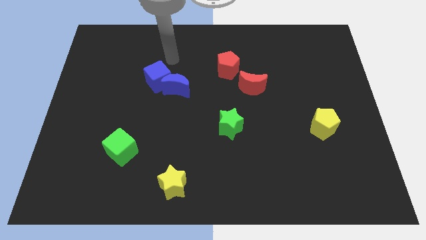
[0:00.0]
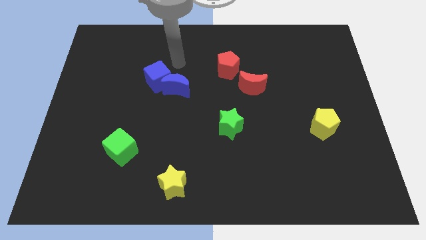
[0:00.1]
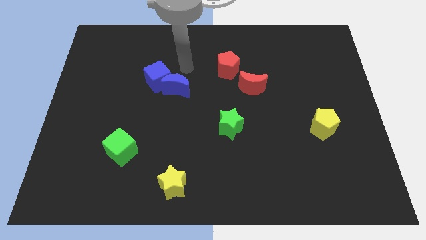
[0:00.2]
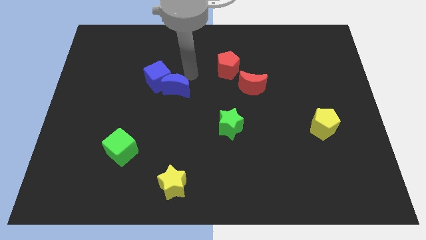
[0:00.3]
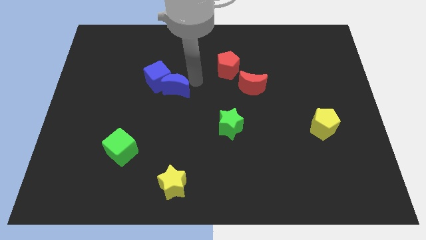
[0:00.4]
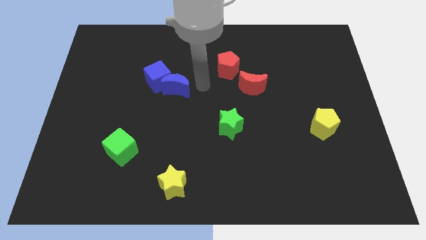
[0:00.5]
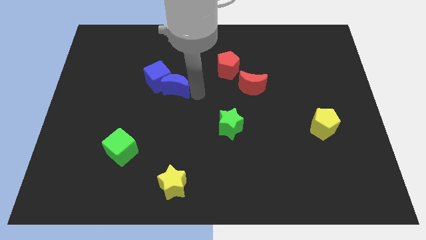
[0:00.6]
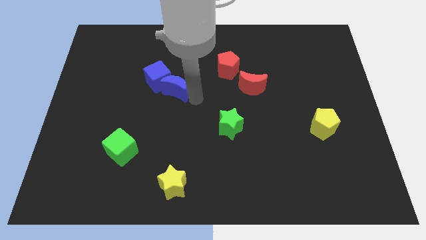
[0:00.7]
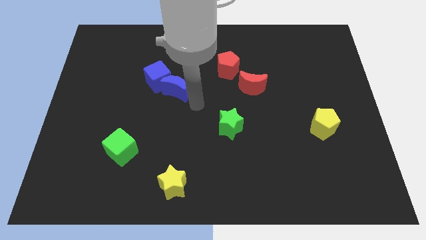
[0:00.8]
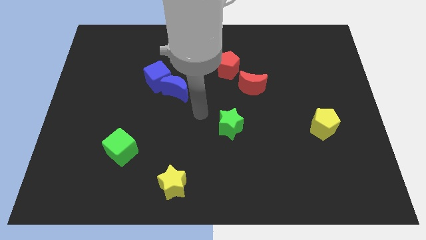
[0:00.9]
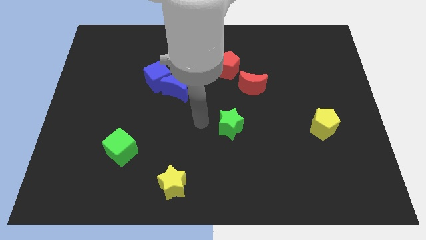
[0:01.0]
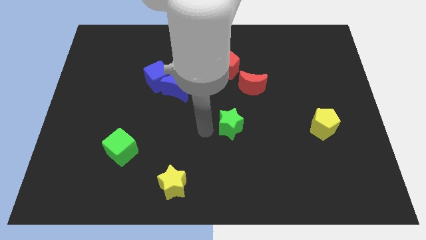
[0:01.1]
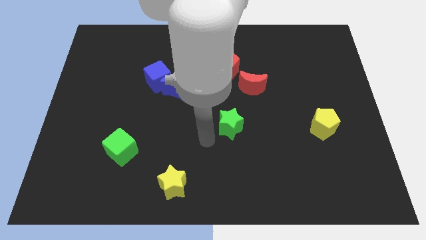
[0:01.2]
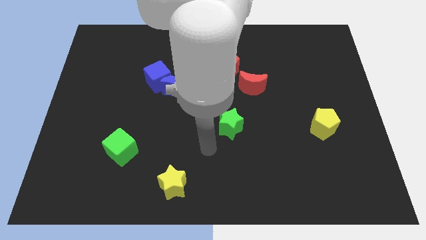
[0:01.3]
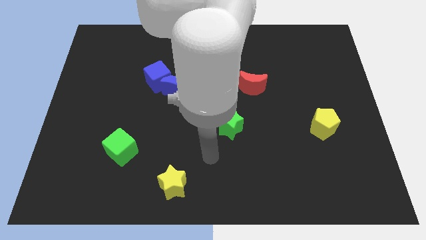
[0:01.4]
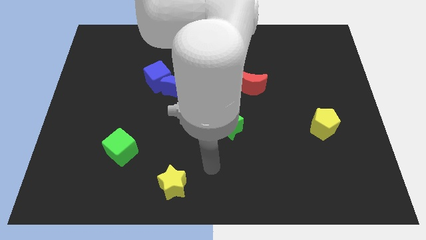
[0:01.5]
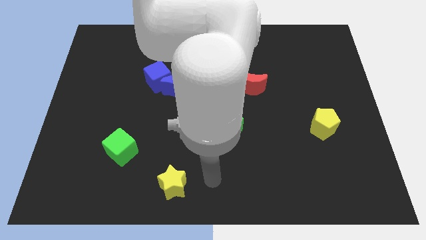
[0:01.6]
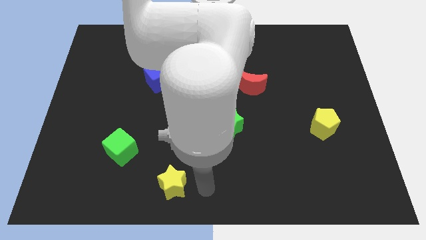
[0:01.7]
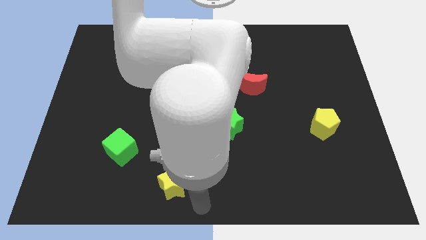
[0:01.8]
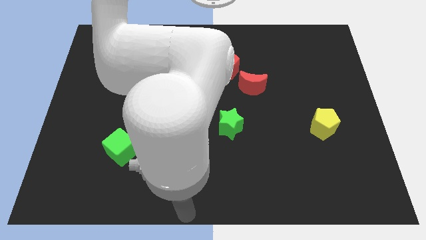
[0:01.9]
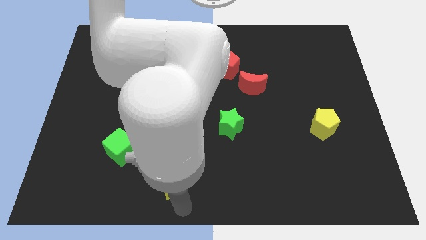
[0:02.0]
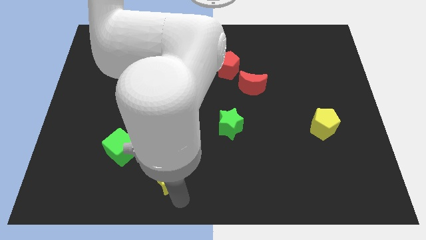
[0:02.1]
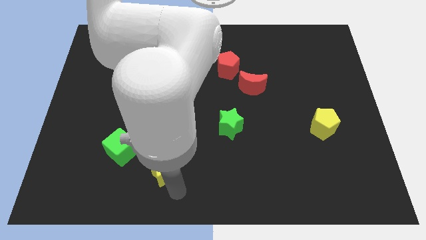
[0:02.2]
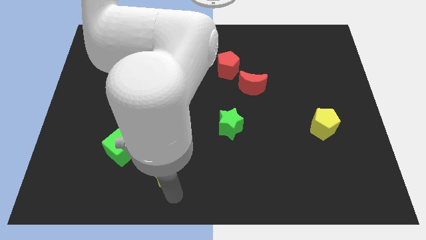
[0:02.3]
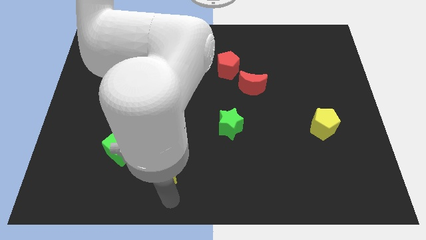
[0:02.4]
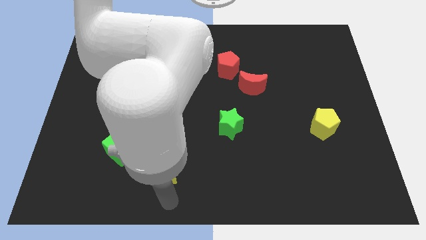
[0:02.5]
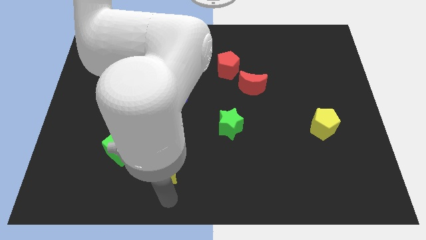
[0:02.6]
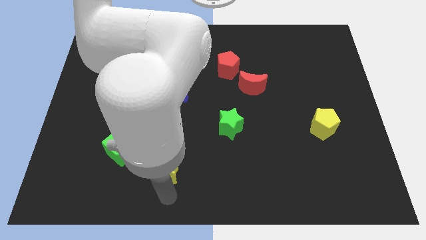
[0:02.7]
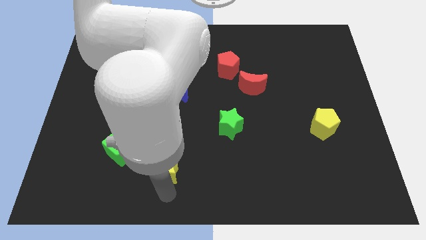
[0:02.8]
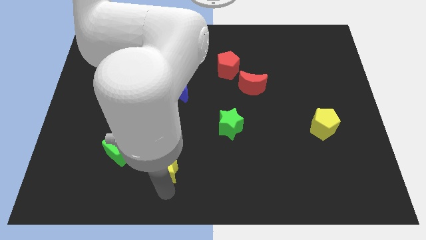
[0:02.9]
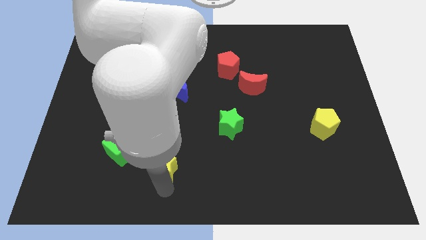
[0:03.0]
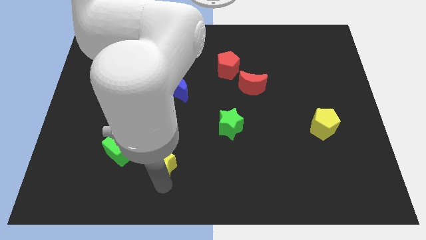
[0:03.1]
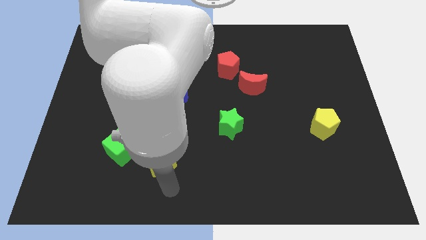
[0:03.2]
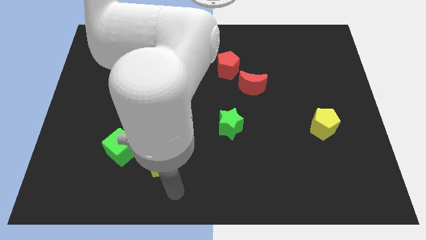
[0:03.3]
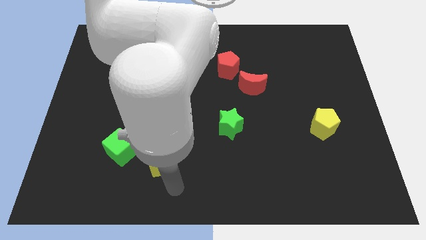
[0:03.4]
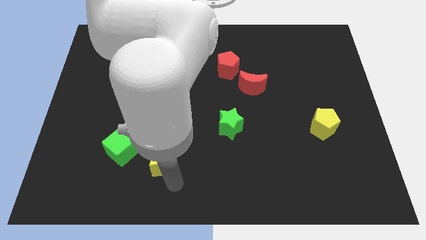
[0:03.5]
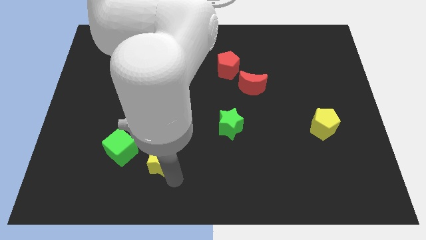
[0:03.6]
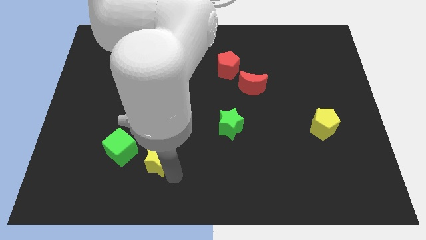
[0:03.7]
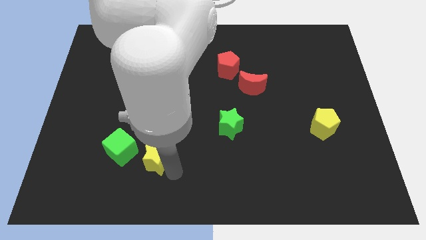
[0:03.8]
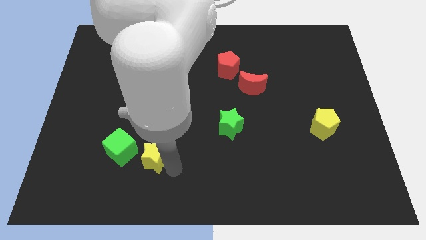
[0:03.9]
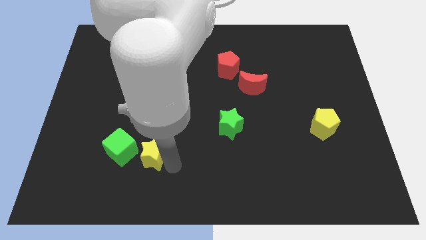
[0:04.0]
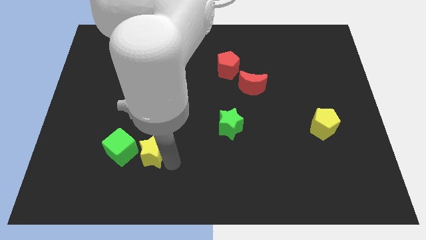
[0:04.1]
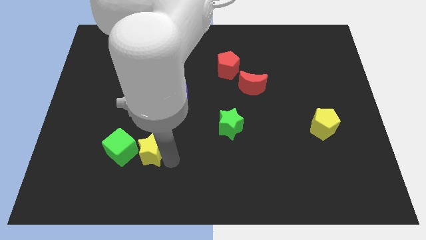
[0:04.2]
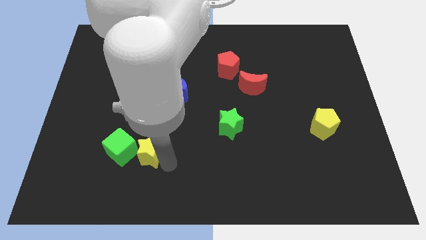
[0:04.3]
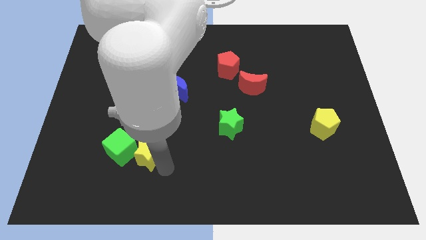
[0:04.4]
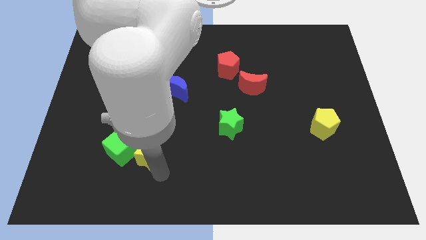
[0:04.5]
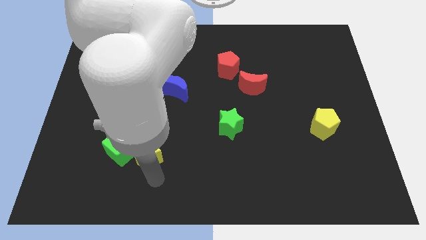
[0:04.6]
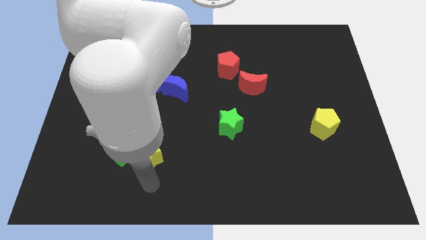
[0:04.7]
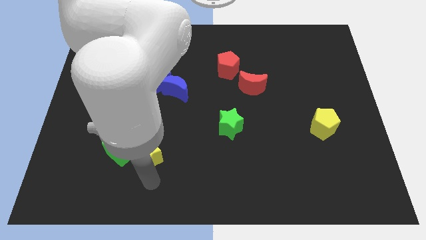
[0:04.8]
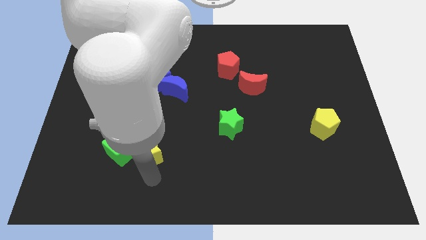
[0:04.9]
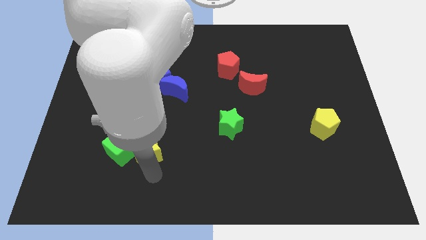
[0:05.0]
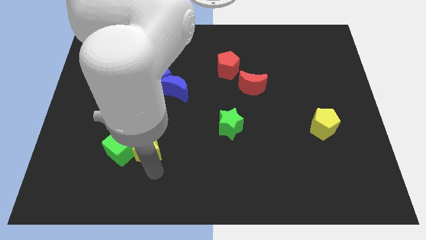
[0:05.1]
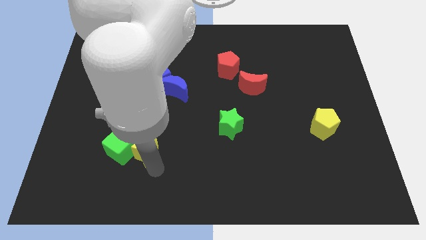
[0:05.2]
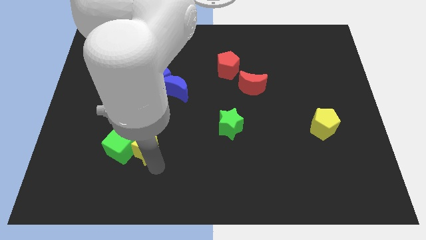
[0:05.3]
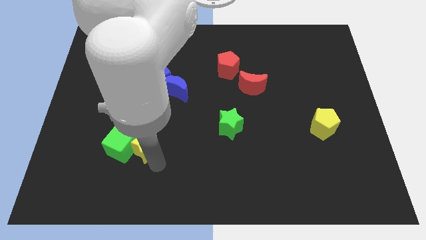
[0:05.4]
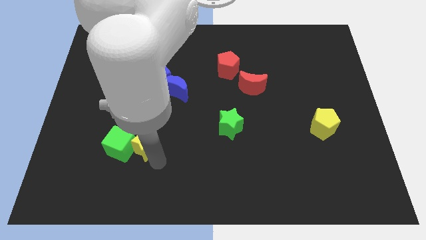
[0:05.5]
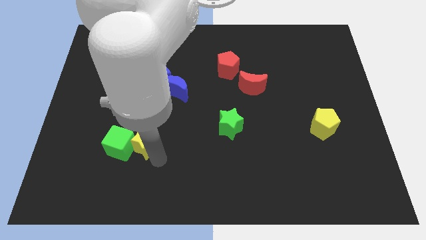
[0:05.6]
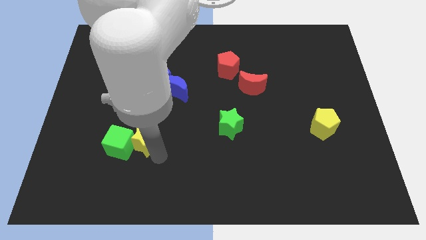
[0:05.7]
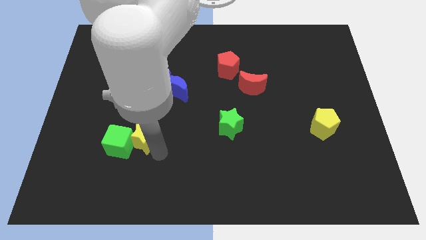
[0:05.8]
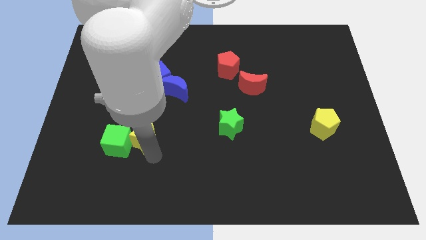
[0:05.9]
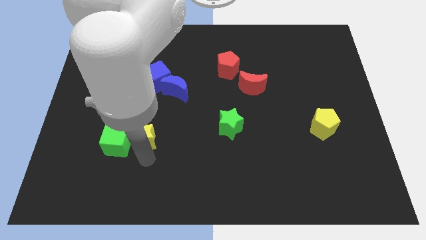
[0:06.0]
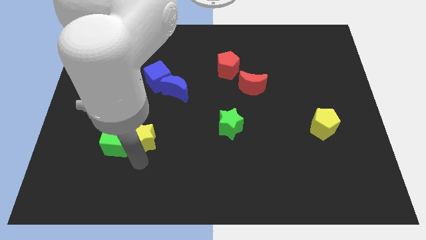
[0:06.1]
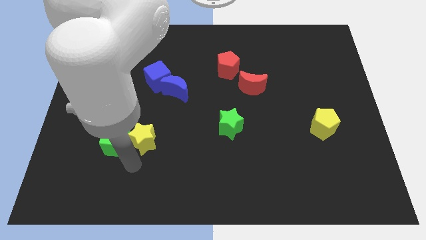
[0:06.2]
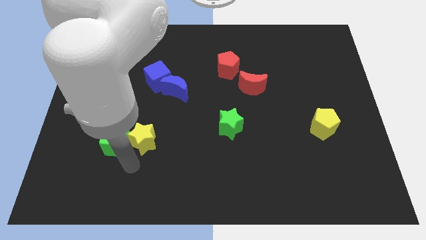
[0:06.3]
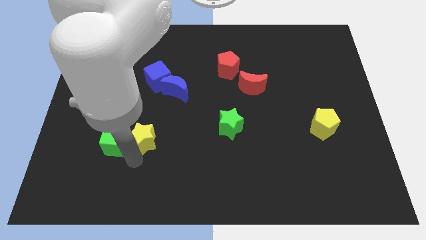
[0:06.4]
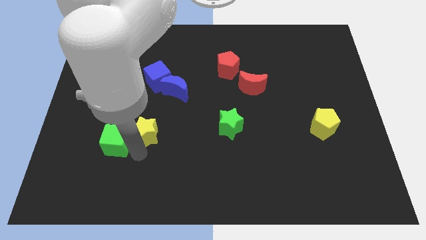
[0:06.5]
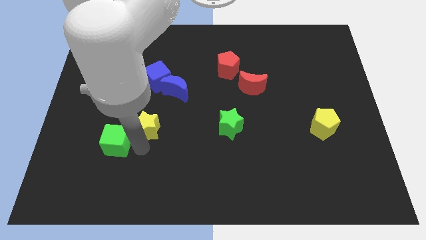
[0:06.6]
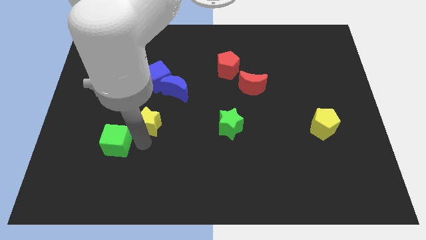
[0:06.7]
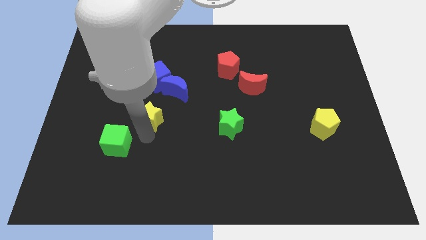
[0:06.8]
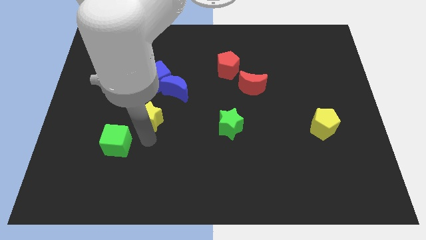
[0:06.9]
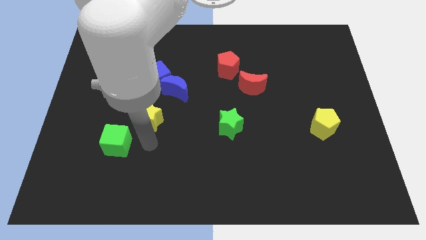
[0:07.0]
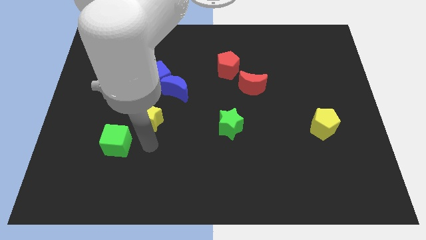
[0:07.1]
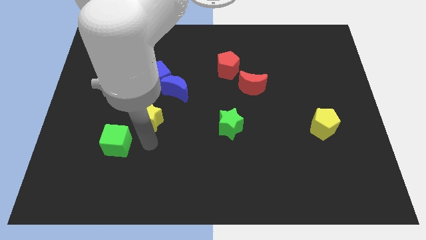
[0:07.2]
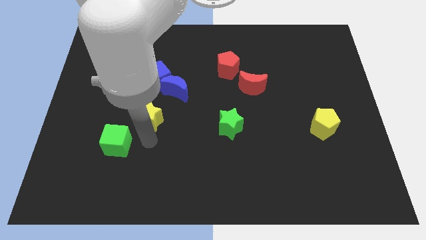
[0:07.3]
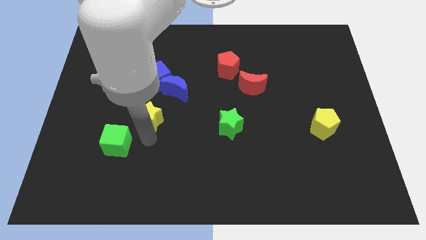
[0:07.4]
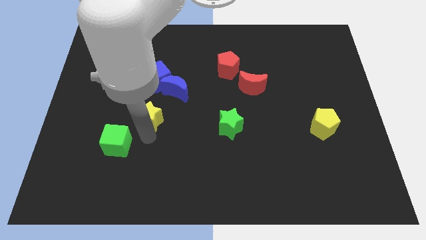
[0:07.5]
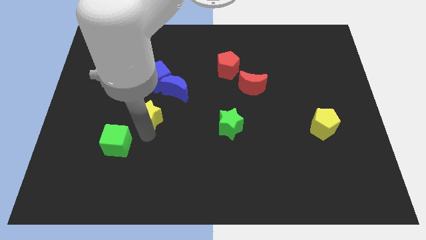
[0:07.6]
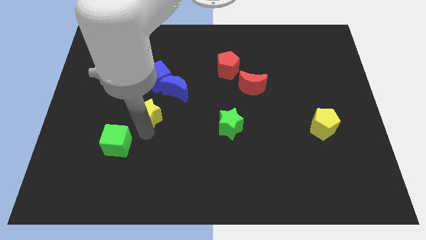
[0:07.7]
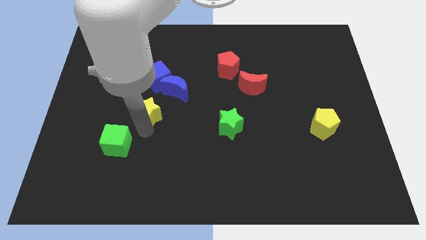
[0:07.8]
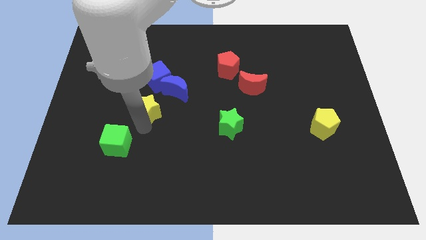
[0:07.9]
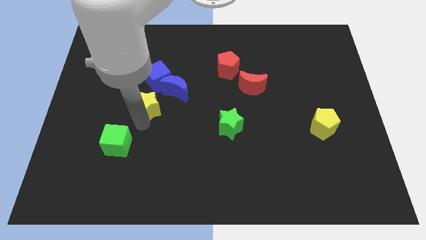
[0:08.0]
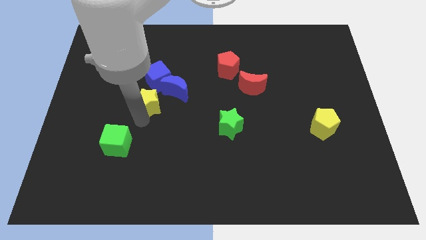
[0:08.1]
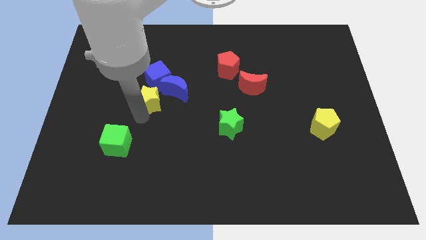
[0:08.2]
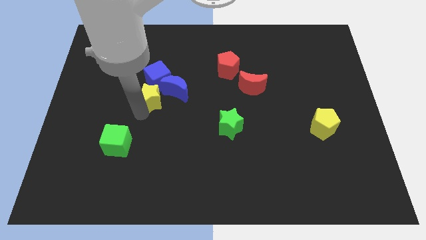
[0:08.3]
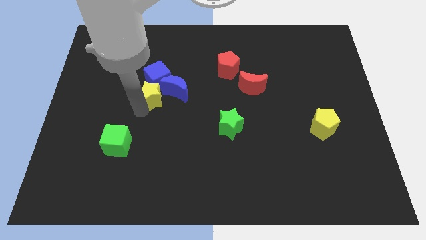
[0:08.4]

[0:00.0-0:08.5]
move the yellow star towards the blue cube
